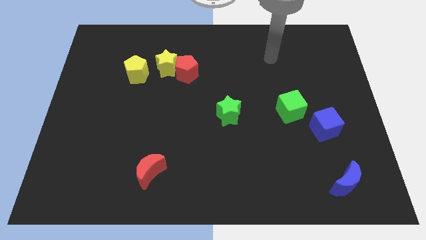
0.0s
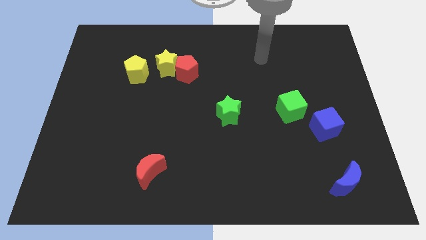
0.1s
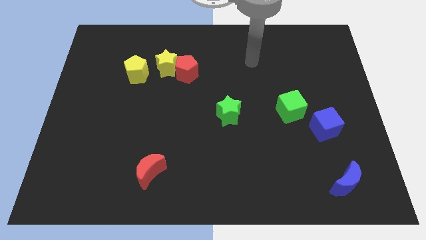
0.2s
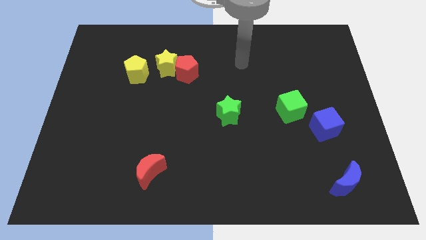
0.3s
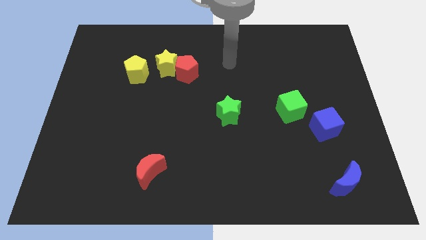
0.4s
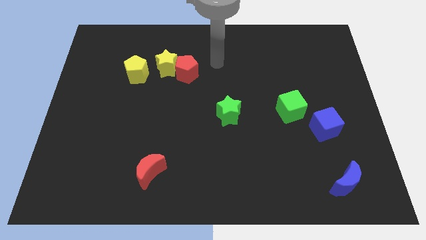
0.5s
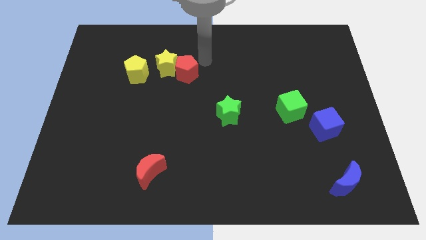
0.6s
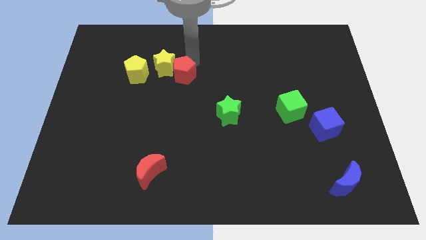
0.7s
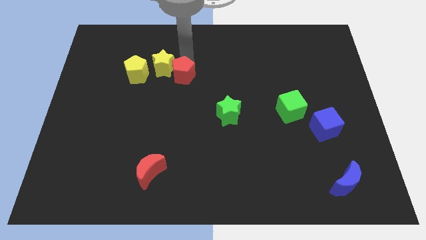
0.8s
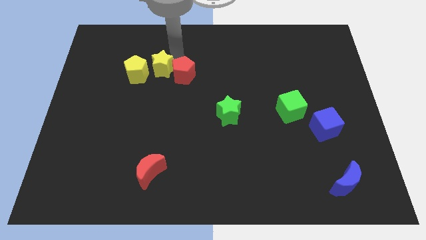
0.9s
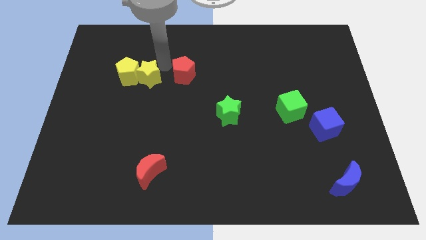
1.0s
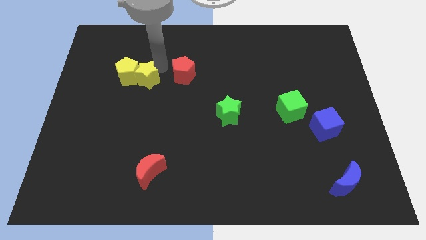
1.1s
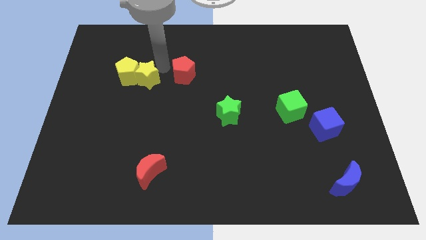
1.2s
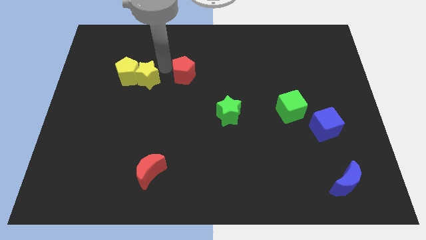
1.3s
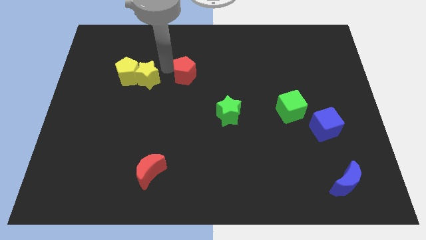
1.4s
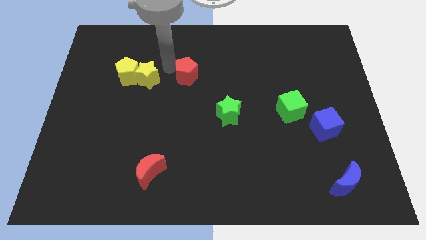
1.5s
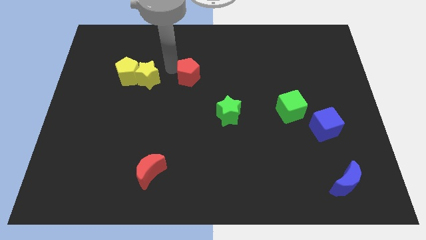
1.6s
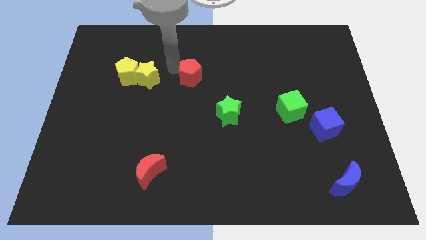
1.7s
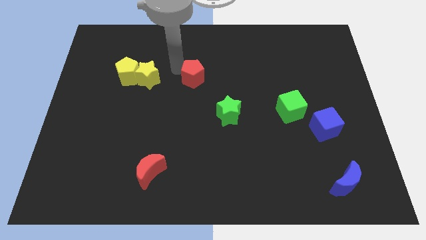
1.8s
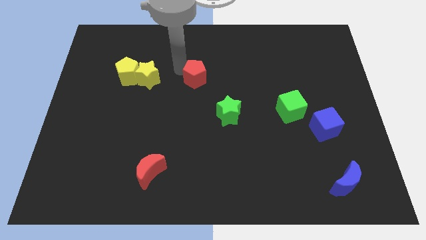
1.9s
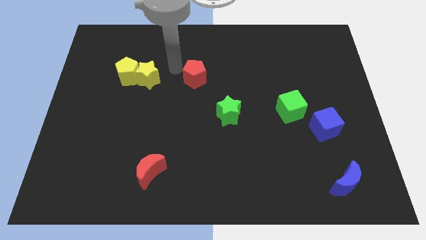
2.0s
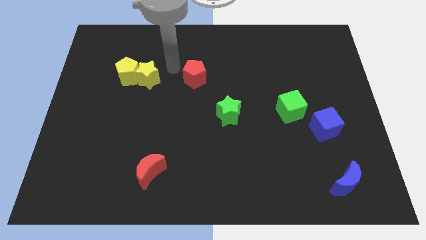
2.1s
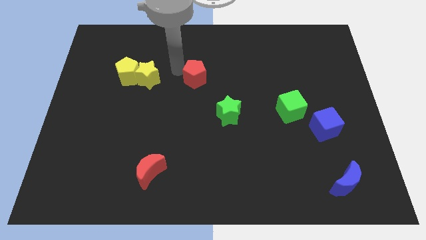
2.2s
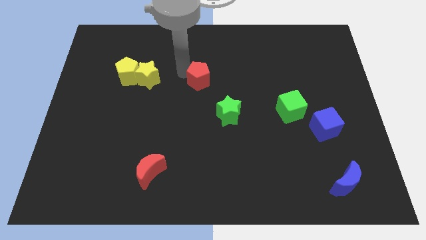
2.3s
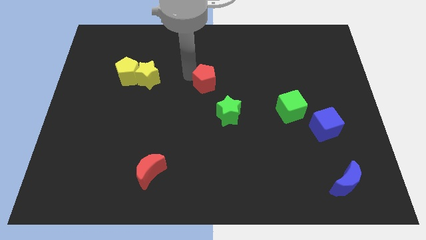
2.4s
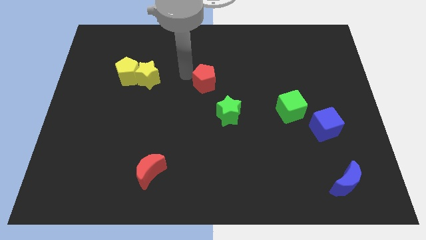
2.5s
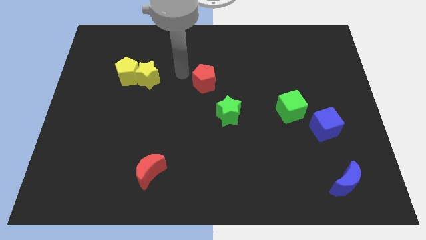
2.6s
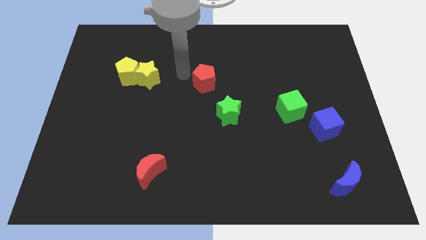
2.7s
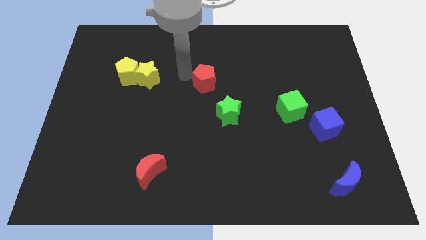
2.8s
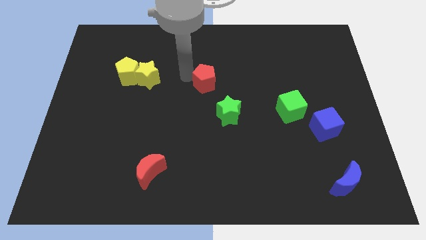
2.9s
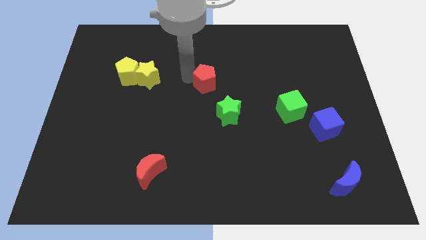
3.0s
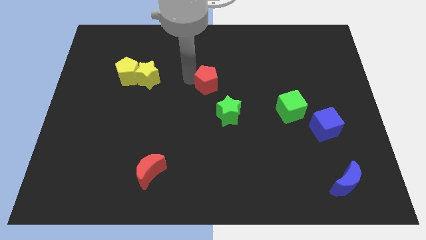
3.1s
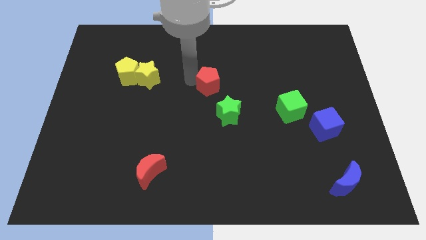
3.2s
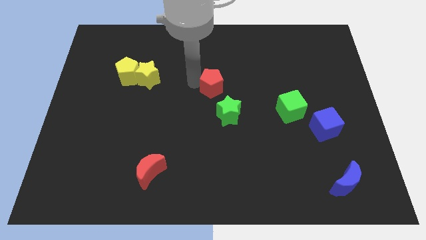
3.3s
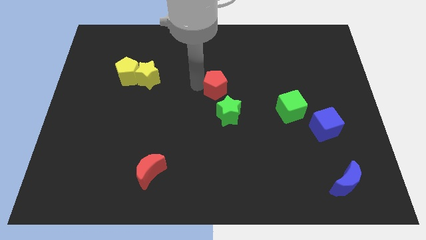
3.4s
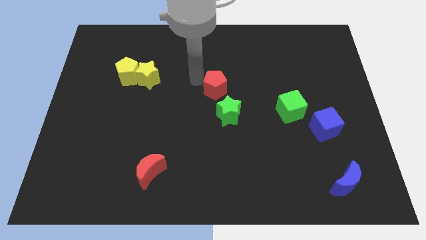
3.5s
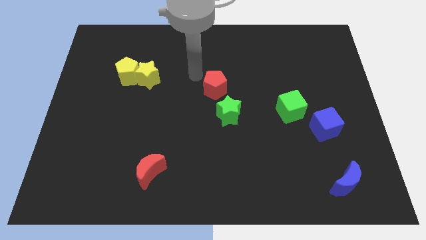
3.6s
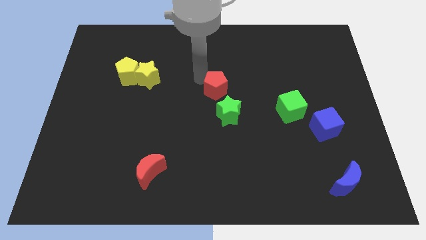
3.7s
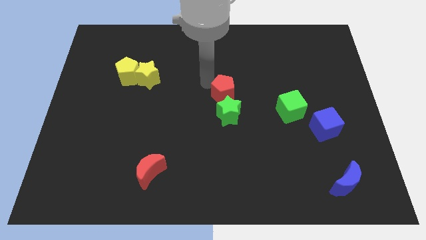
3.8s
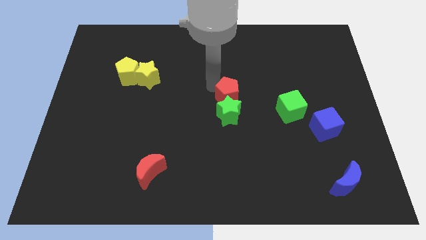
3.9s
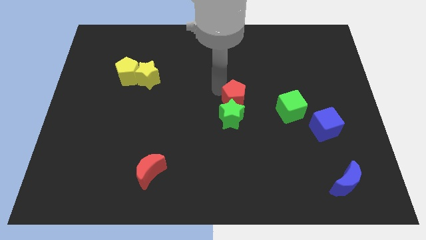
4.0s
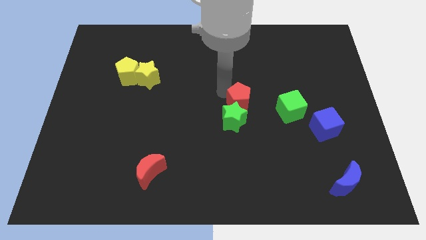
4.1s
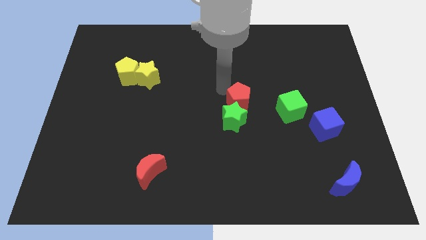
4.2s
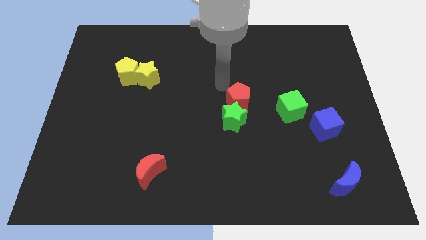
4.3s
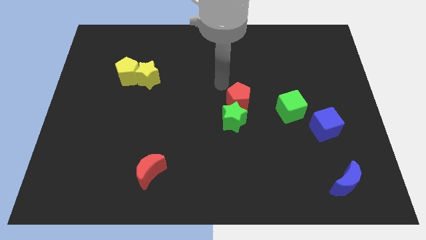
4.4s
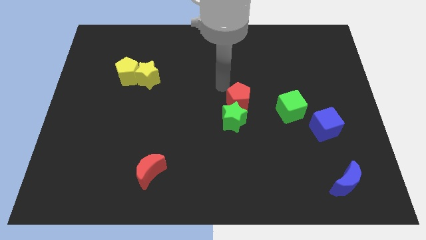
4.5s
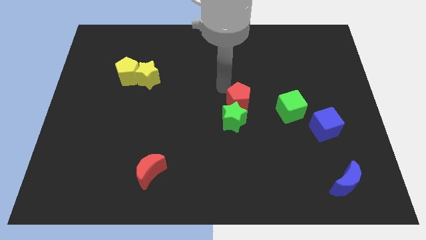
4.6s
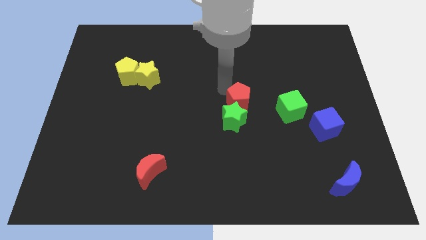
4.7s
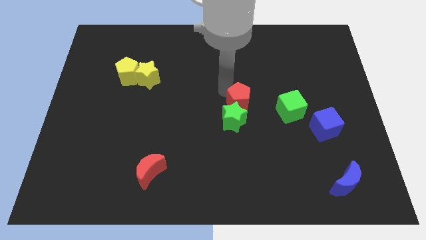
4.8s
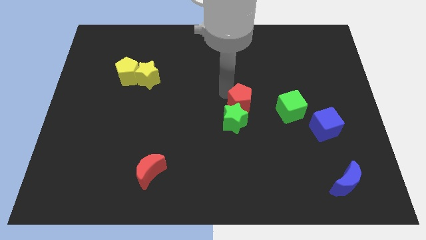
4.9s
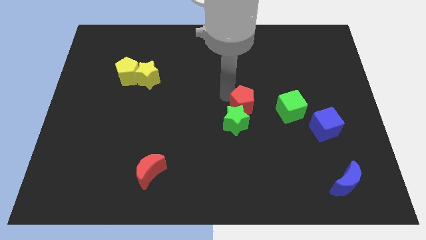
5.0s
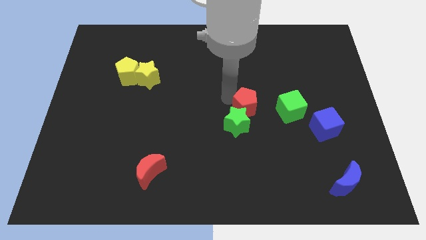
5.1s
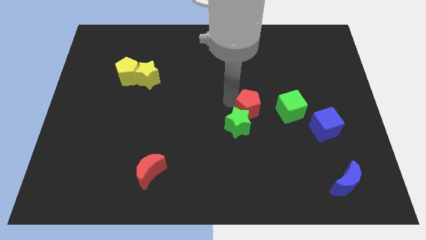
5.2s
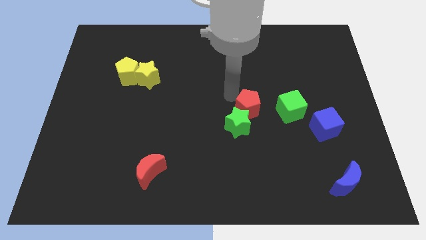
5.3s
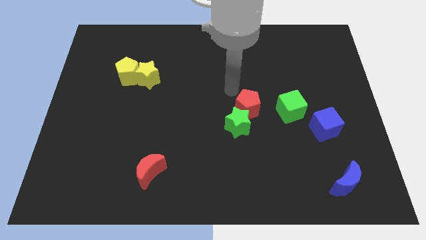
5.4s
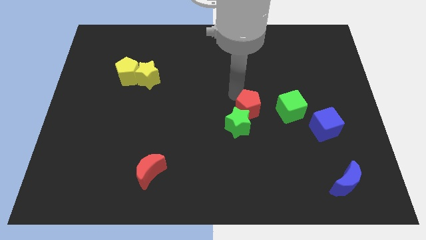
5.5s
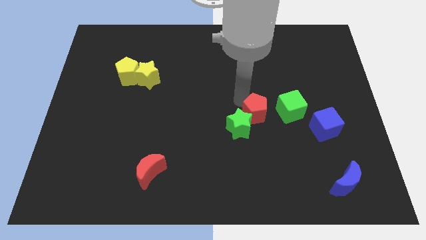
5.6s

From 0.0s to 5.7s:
move the red pentagon down and then to the right

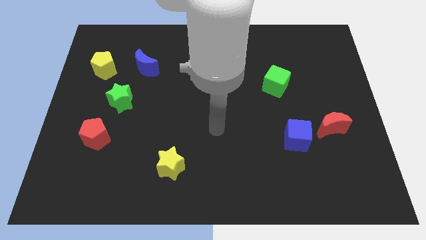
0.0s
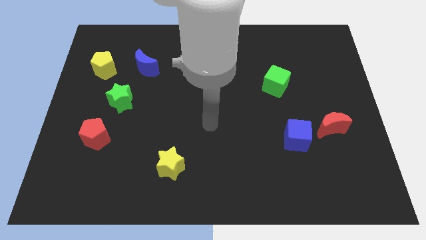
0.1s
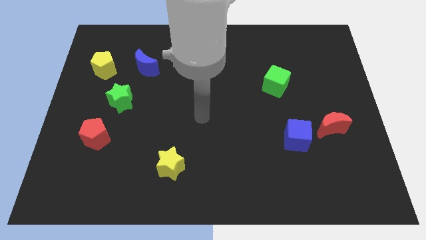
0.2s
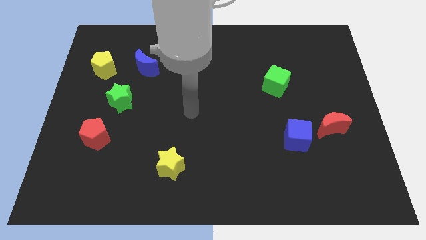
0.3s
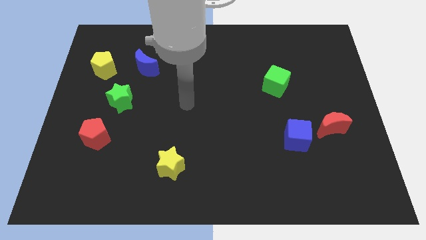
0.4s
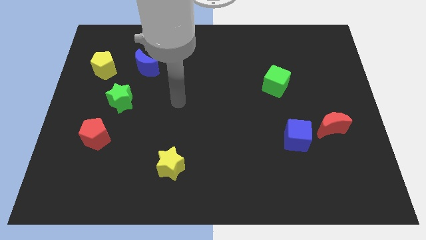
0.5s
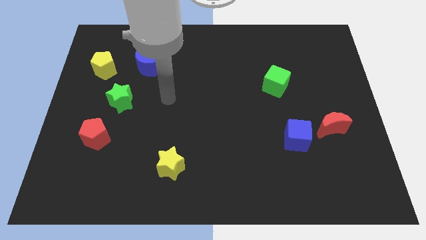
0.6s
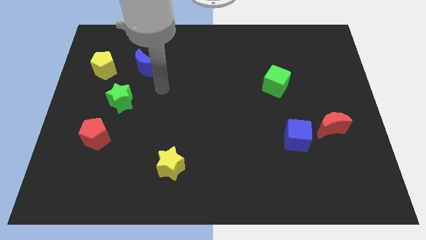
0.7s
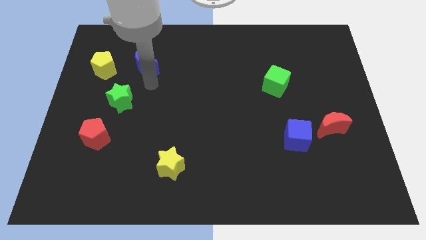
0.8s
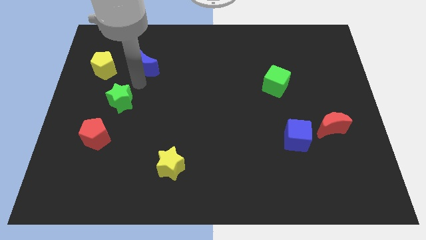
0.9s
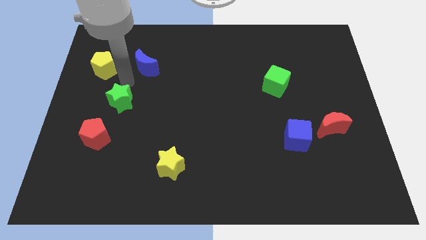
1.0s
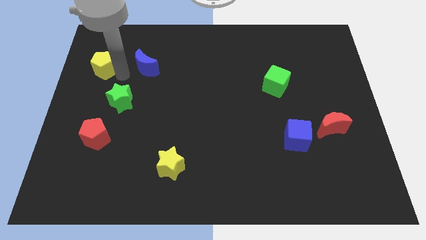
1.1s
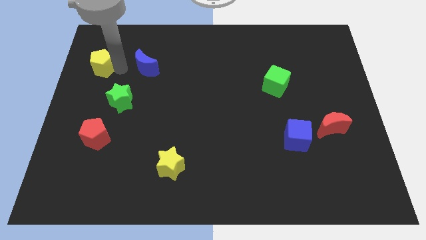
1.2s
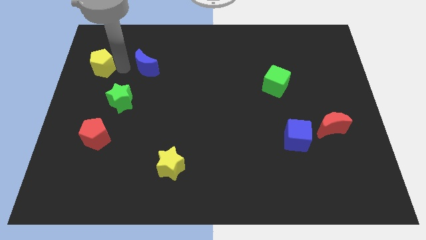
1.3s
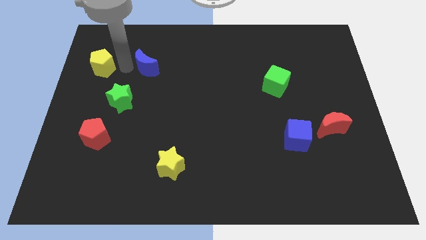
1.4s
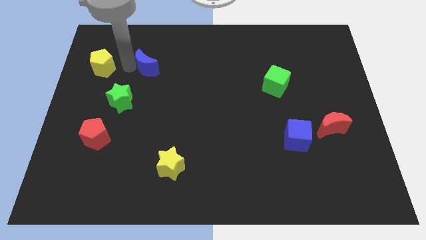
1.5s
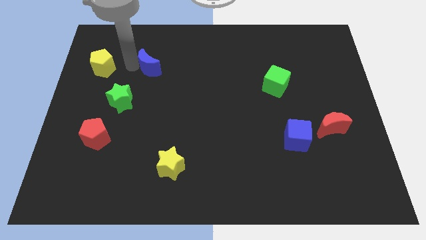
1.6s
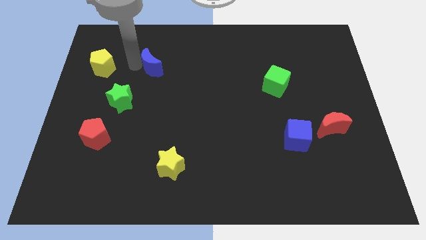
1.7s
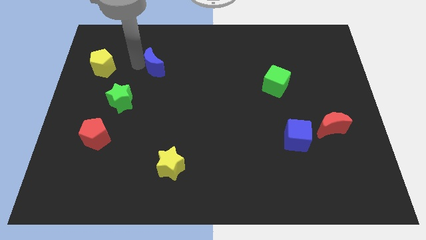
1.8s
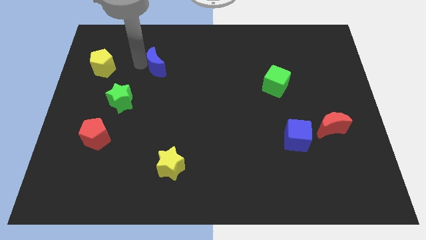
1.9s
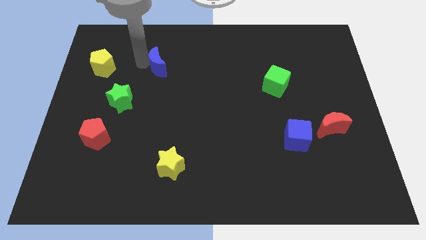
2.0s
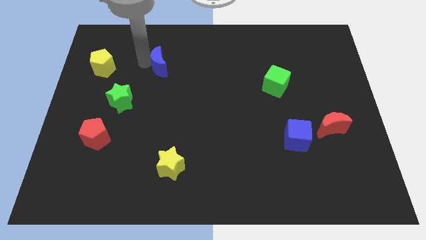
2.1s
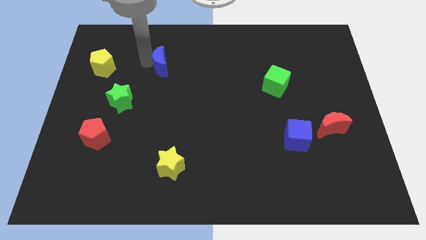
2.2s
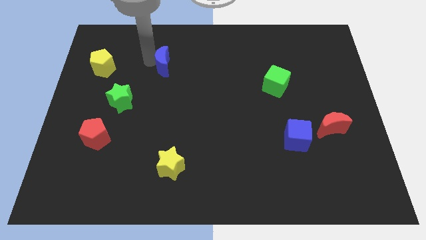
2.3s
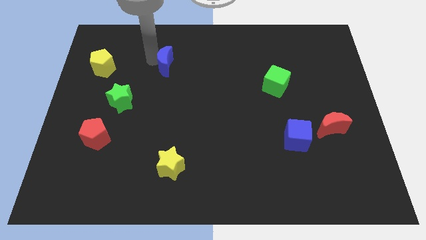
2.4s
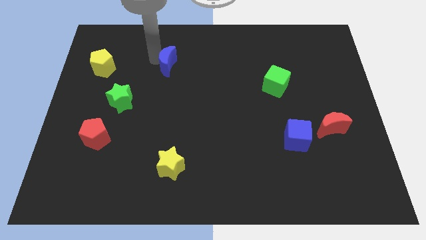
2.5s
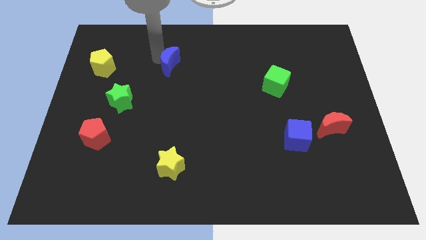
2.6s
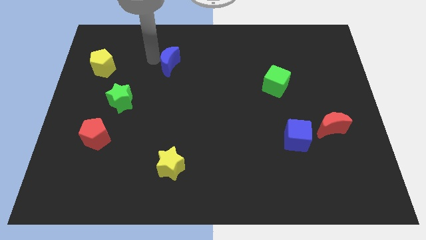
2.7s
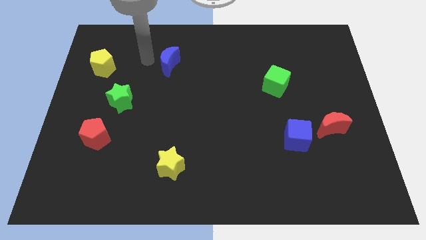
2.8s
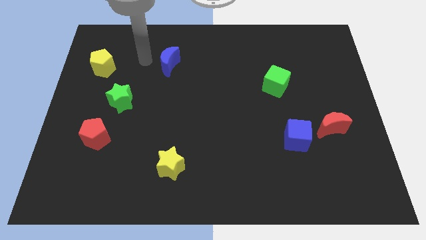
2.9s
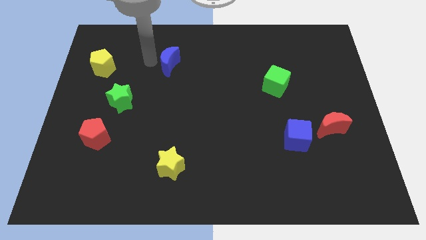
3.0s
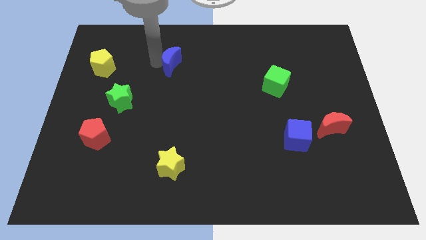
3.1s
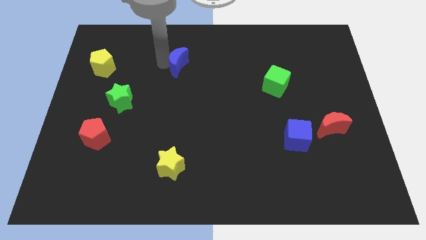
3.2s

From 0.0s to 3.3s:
push the blue moon a little bit to the right
